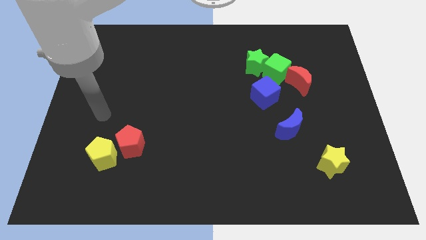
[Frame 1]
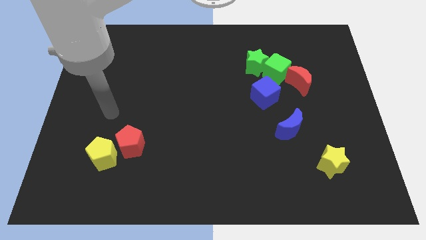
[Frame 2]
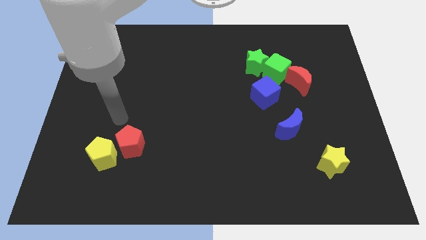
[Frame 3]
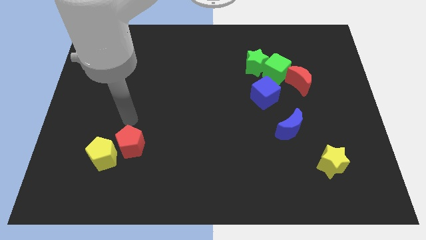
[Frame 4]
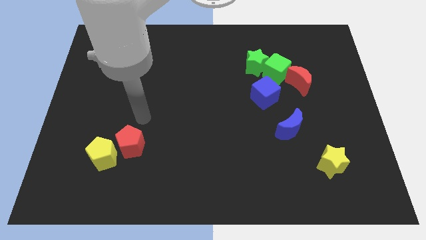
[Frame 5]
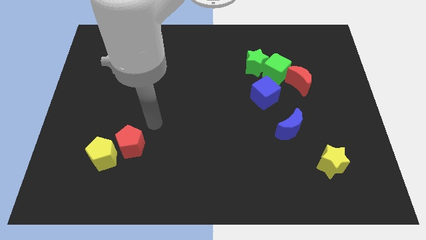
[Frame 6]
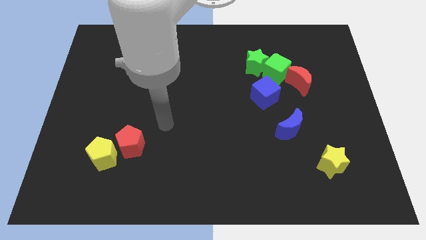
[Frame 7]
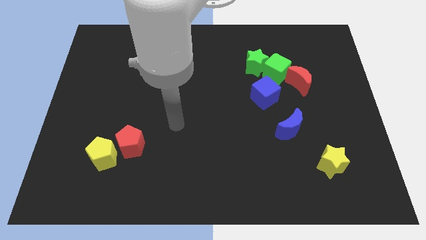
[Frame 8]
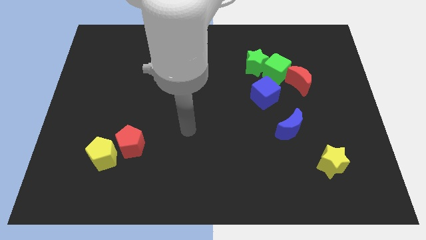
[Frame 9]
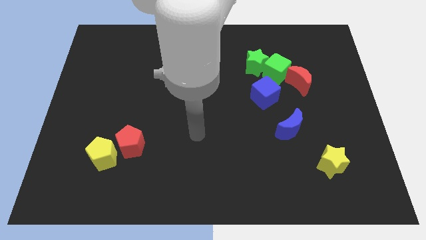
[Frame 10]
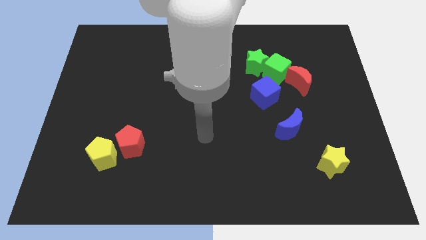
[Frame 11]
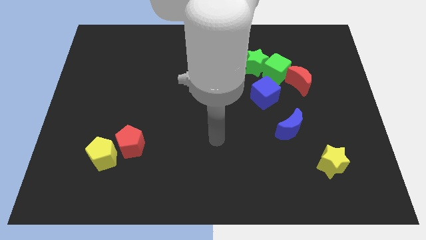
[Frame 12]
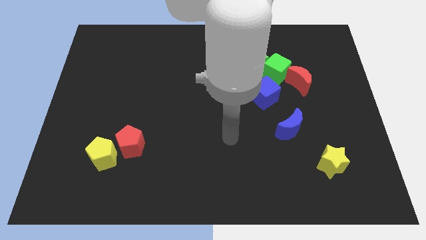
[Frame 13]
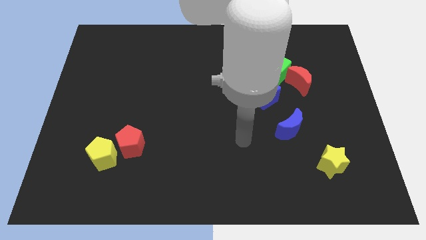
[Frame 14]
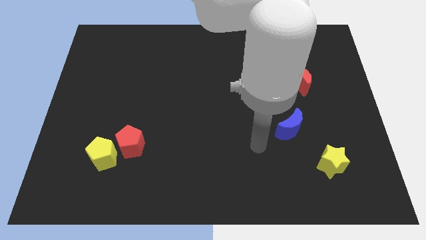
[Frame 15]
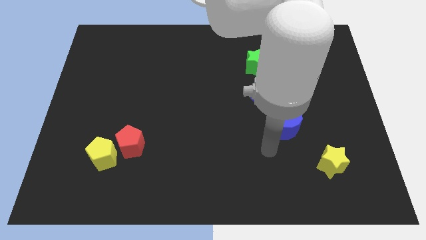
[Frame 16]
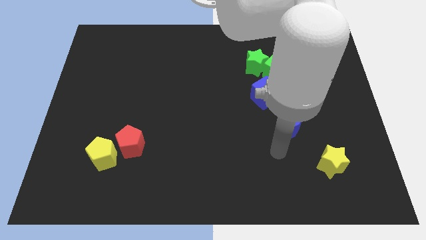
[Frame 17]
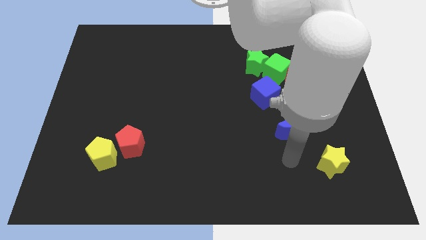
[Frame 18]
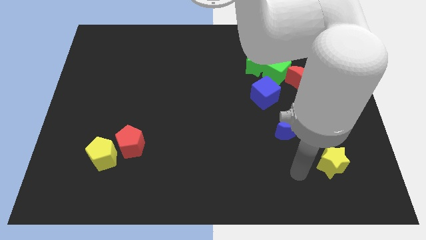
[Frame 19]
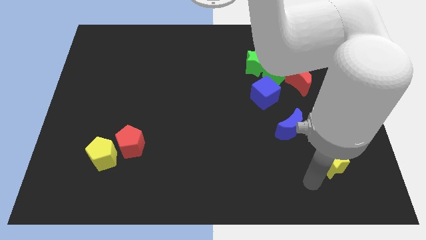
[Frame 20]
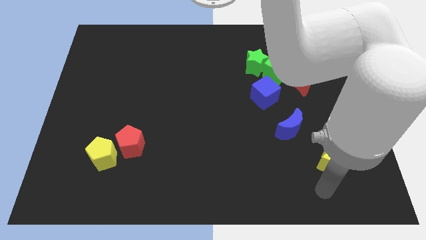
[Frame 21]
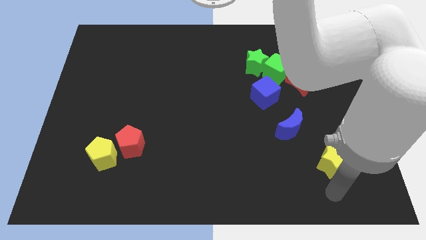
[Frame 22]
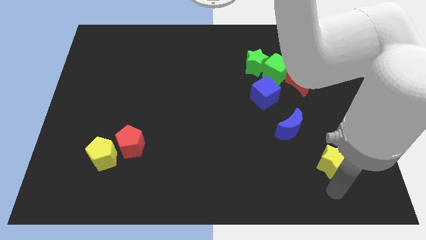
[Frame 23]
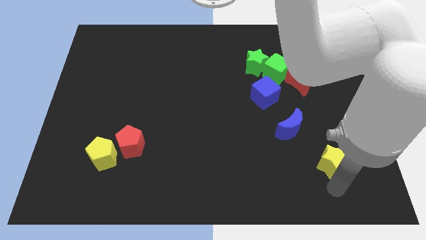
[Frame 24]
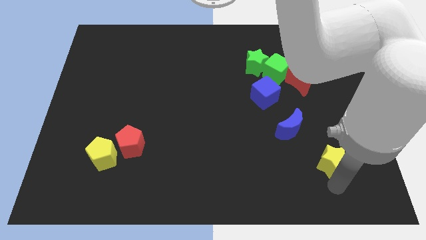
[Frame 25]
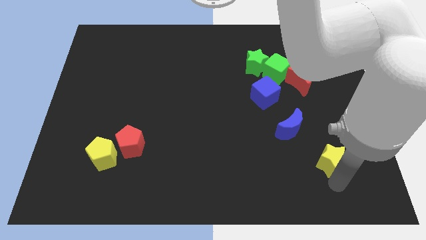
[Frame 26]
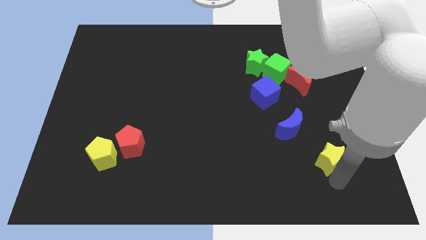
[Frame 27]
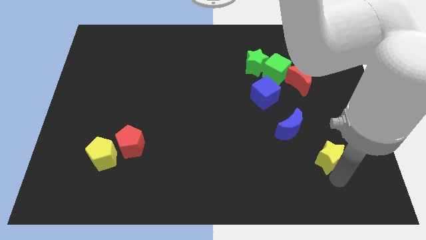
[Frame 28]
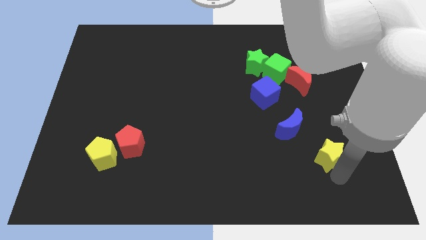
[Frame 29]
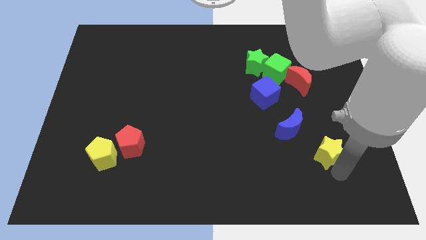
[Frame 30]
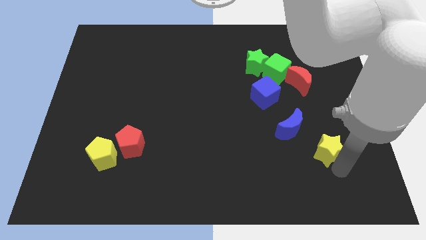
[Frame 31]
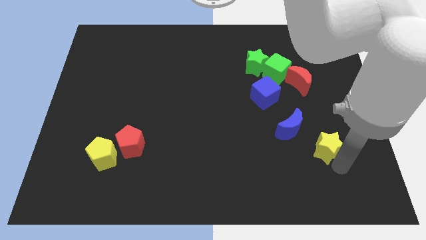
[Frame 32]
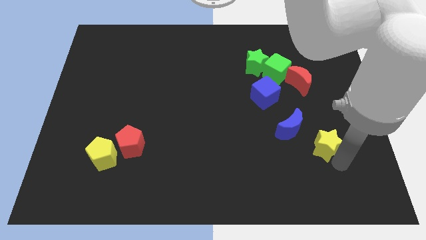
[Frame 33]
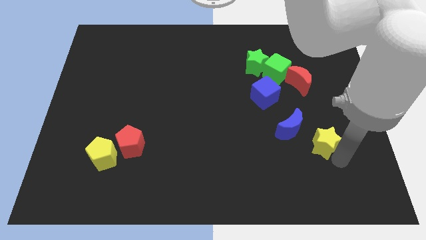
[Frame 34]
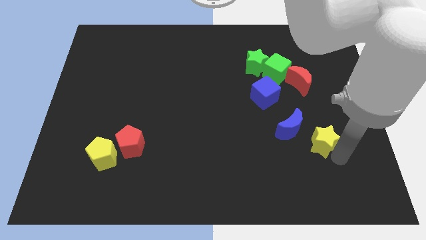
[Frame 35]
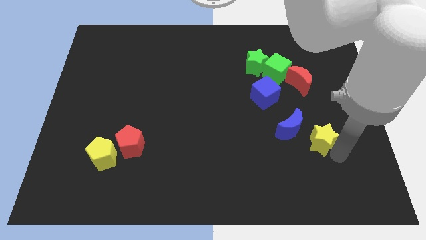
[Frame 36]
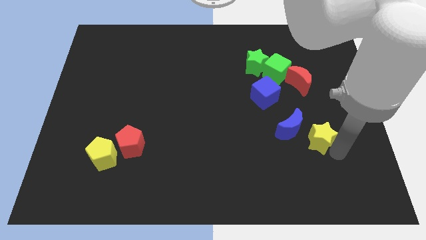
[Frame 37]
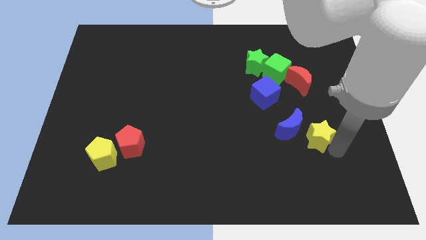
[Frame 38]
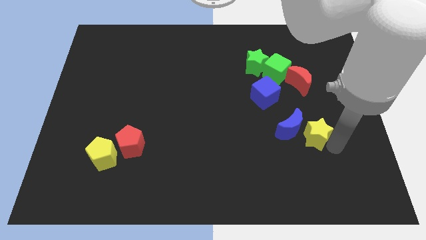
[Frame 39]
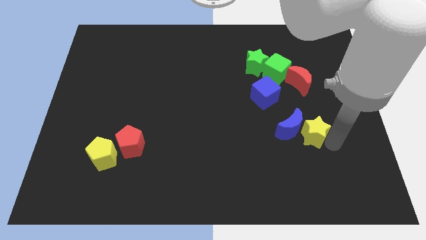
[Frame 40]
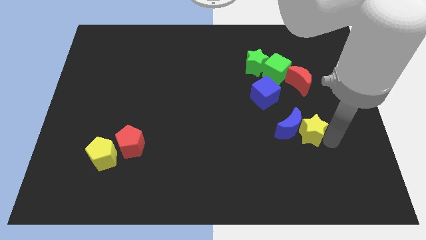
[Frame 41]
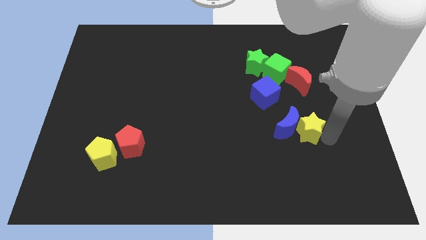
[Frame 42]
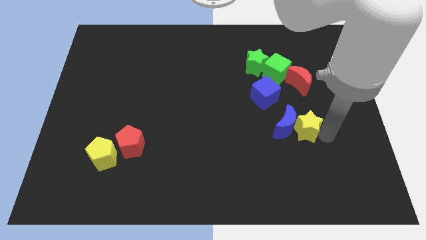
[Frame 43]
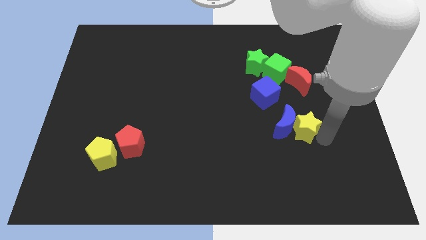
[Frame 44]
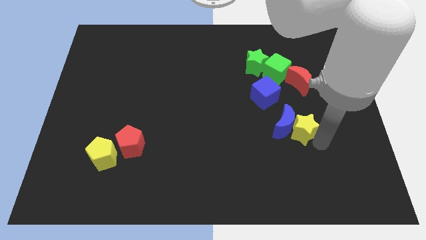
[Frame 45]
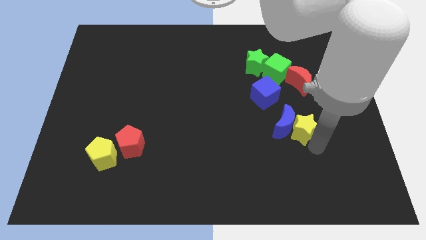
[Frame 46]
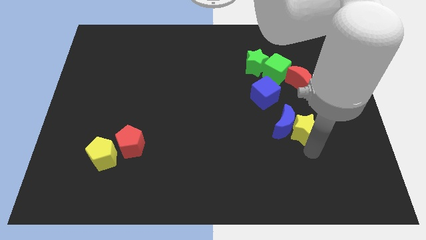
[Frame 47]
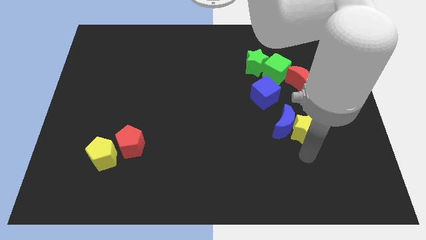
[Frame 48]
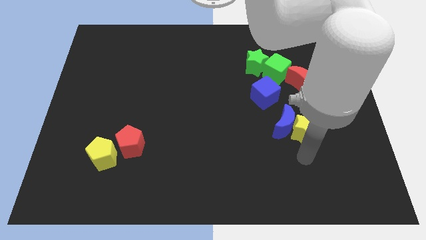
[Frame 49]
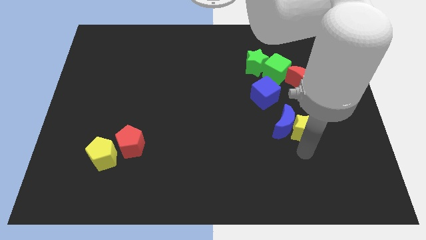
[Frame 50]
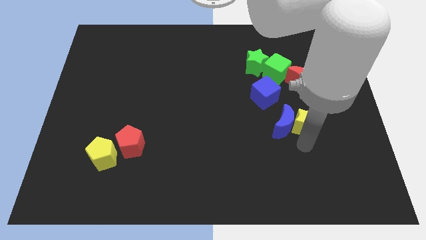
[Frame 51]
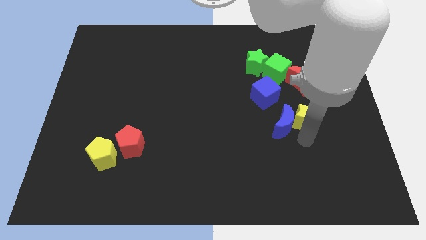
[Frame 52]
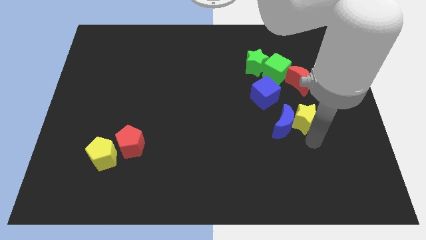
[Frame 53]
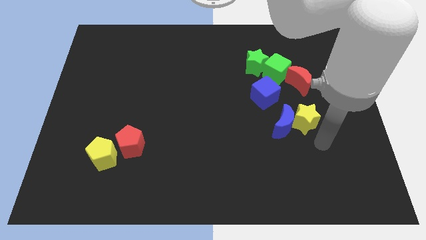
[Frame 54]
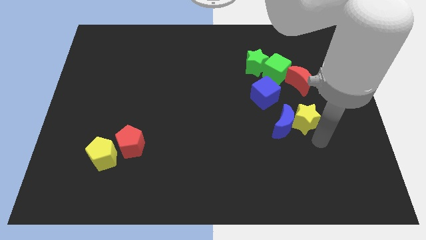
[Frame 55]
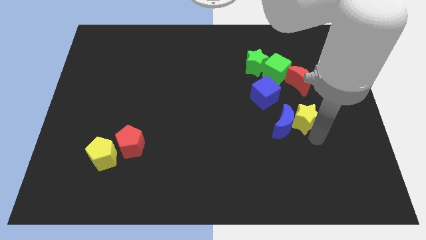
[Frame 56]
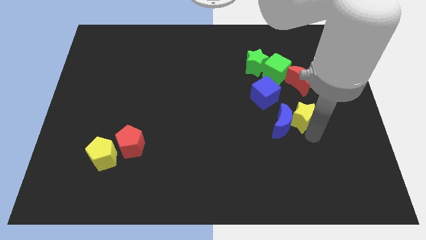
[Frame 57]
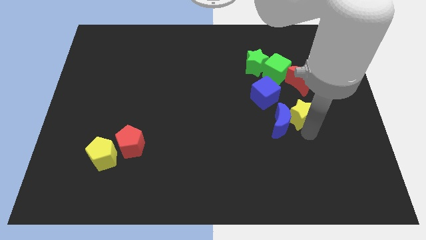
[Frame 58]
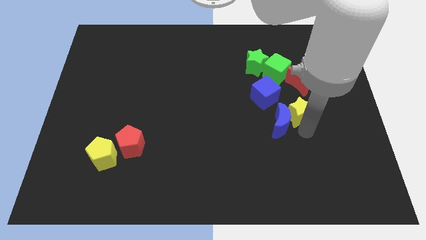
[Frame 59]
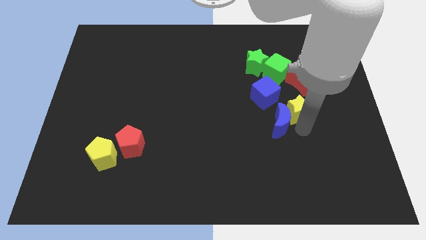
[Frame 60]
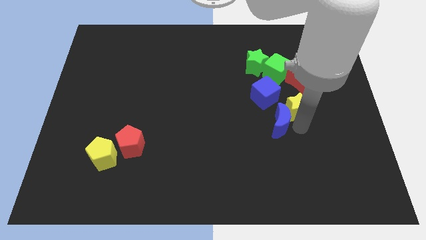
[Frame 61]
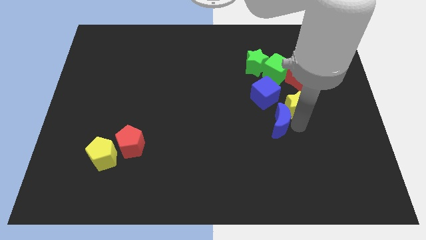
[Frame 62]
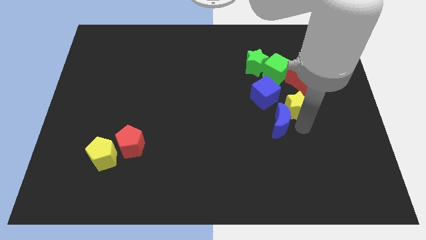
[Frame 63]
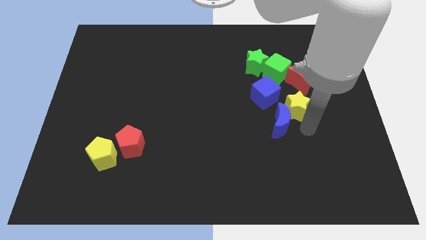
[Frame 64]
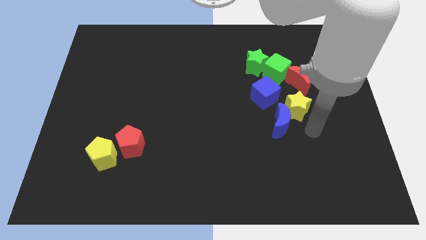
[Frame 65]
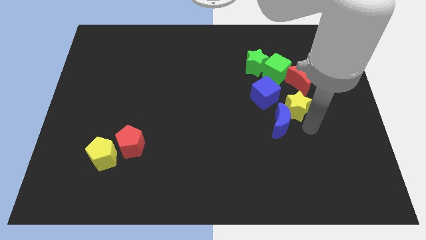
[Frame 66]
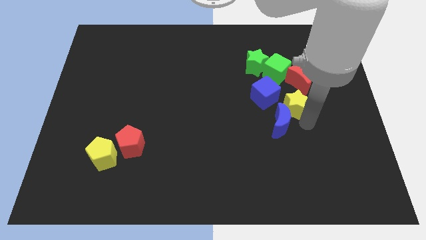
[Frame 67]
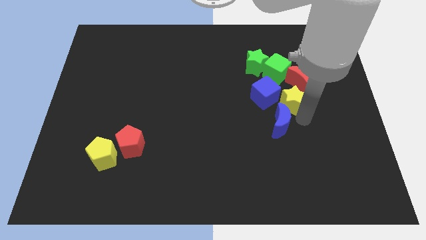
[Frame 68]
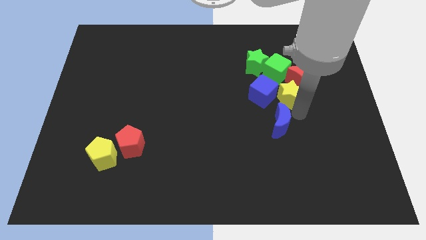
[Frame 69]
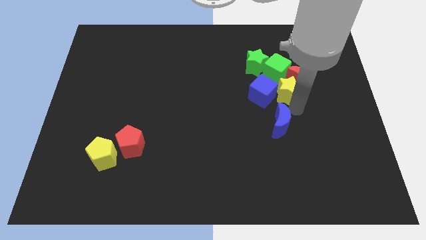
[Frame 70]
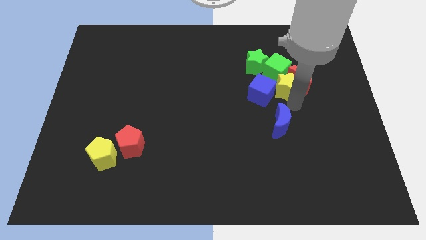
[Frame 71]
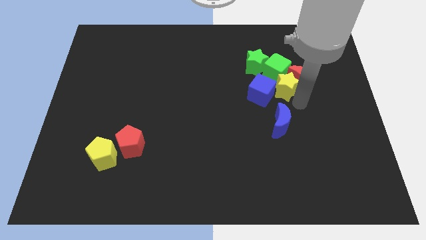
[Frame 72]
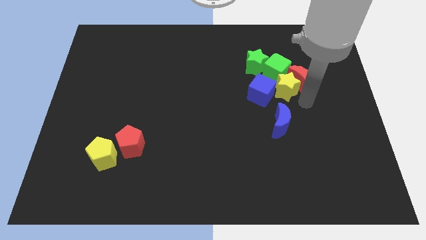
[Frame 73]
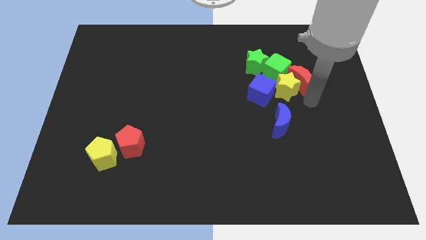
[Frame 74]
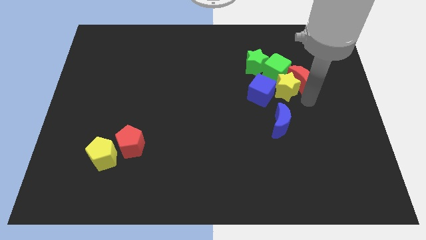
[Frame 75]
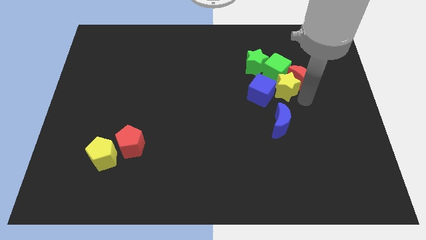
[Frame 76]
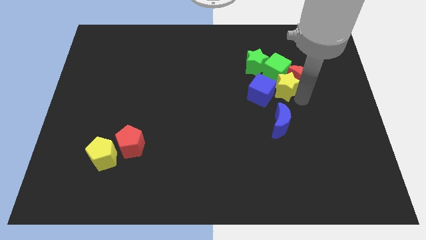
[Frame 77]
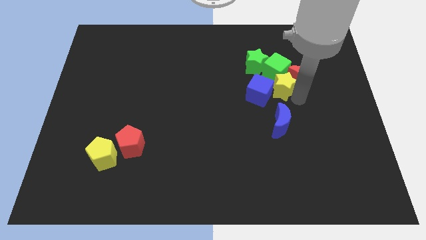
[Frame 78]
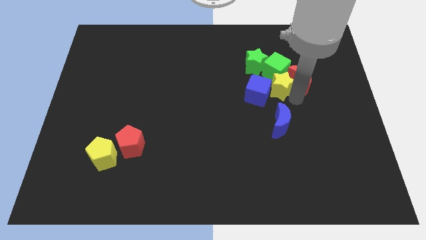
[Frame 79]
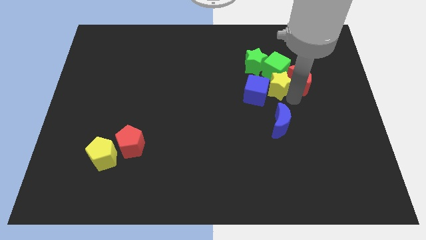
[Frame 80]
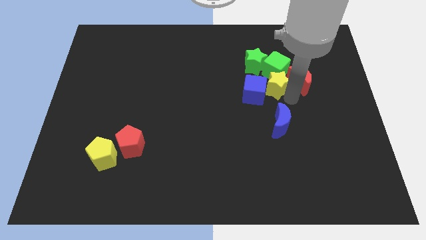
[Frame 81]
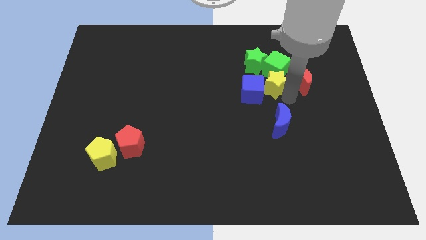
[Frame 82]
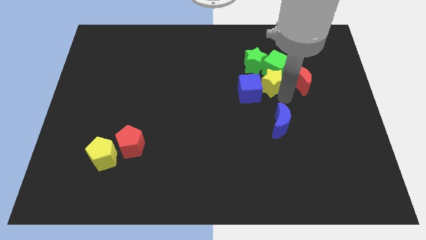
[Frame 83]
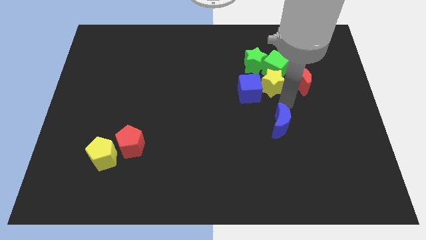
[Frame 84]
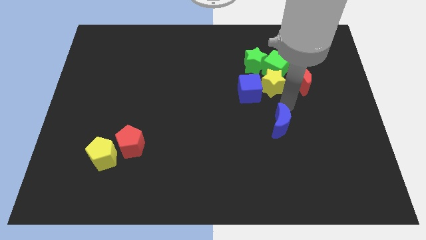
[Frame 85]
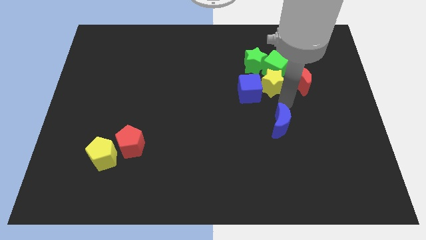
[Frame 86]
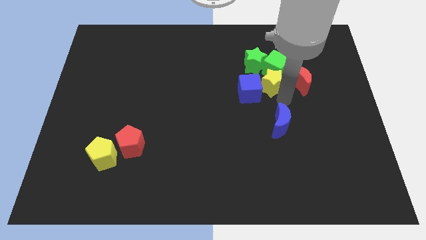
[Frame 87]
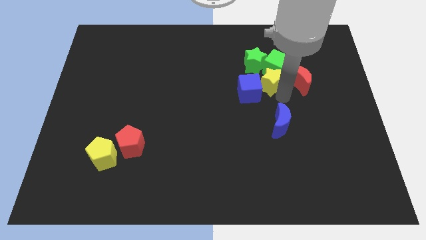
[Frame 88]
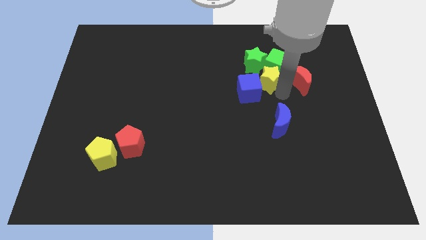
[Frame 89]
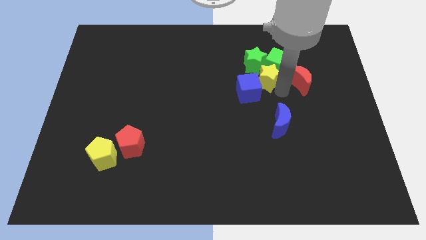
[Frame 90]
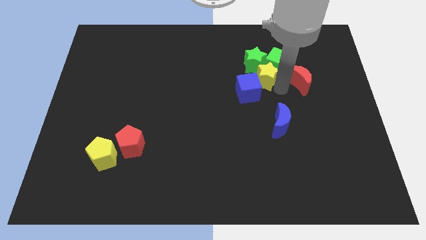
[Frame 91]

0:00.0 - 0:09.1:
put the yellow star to the green star
